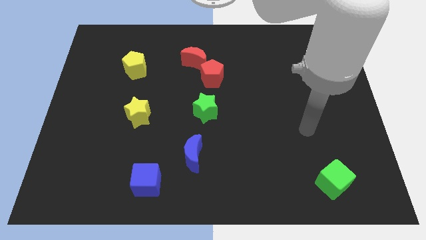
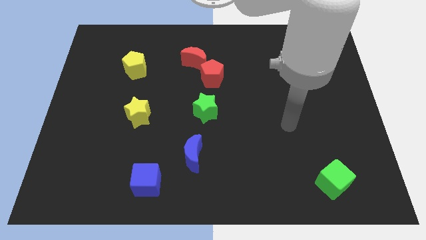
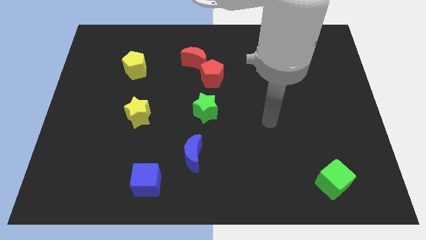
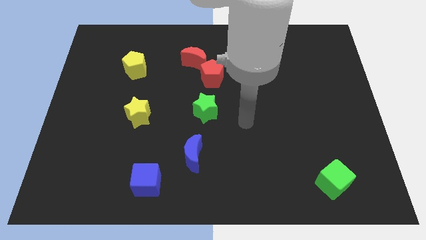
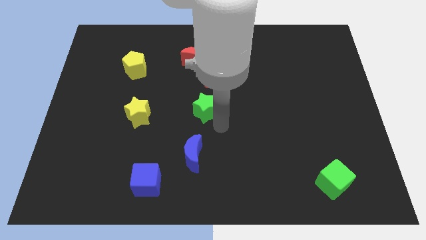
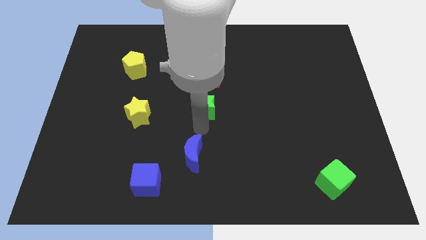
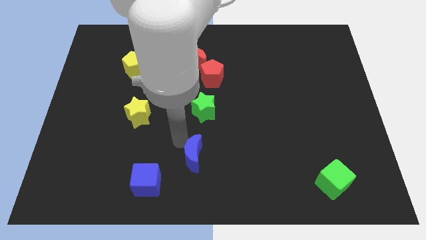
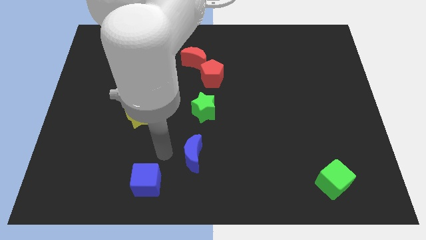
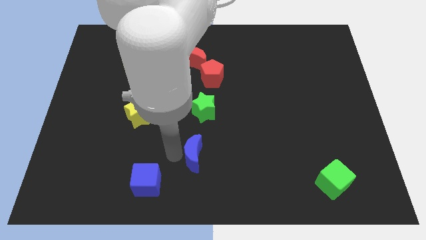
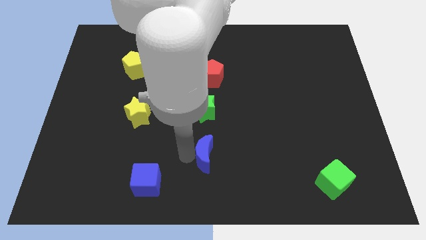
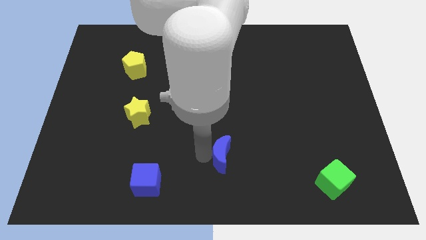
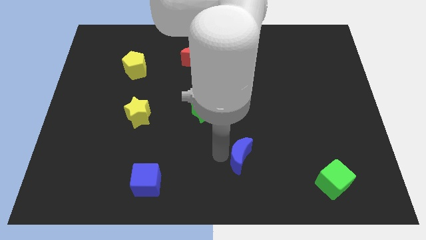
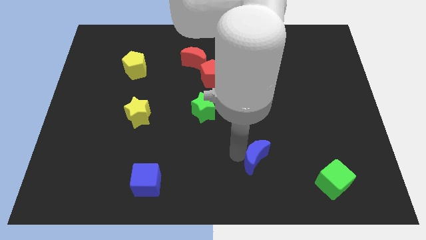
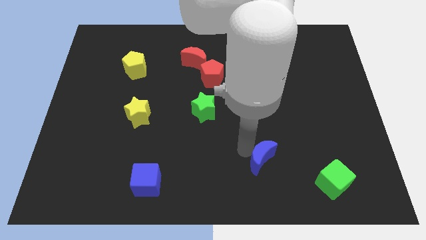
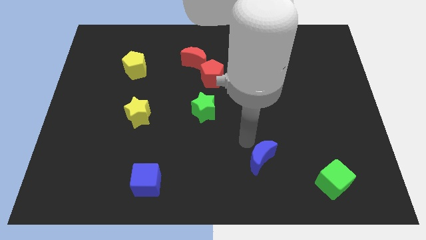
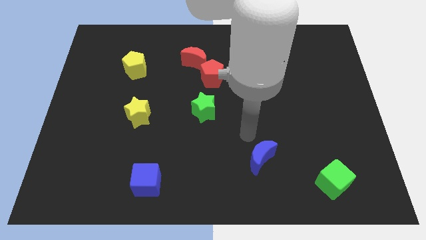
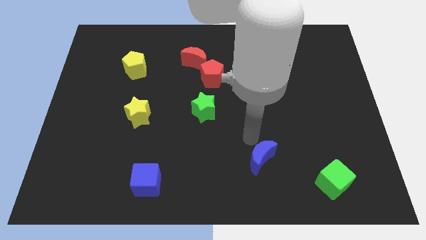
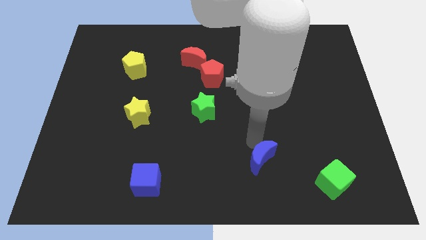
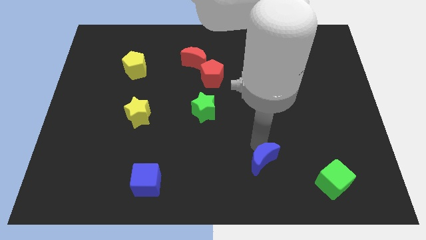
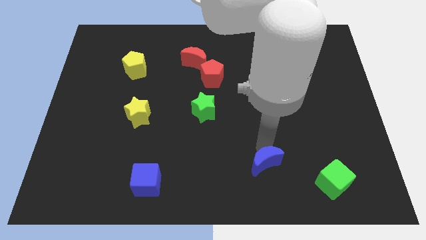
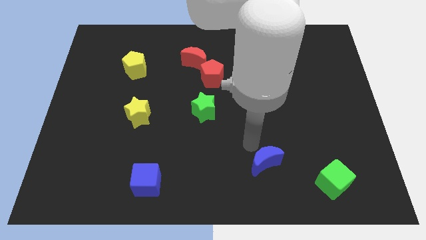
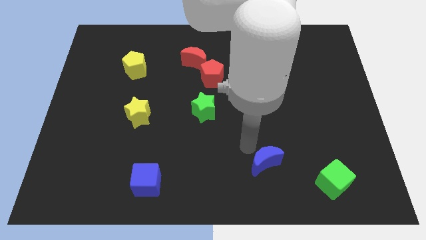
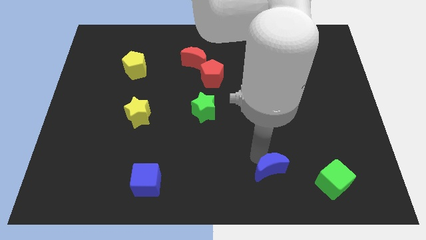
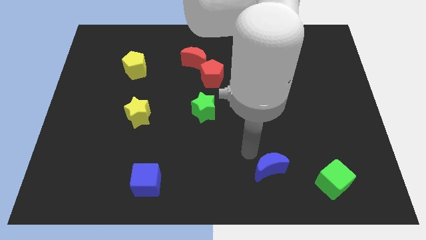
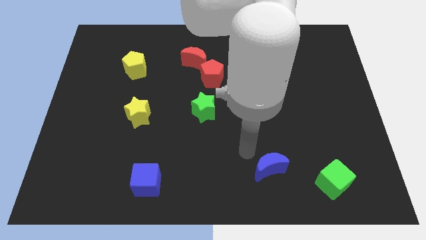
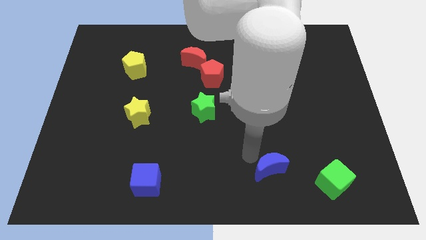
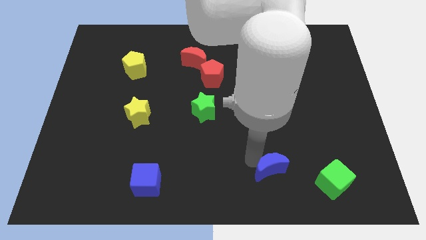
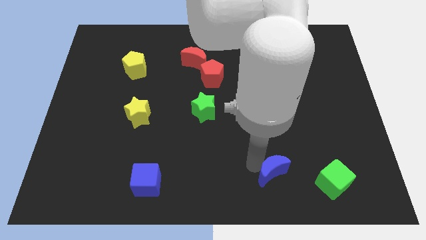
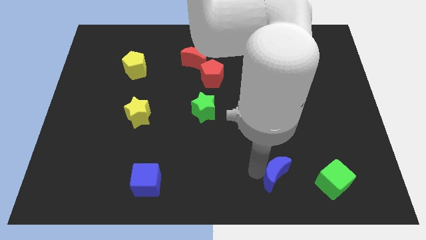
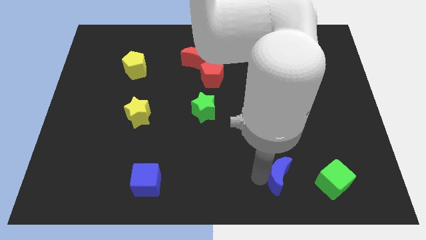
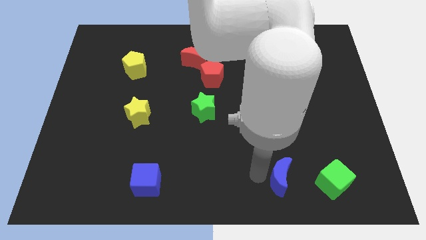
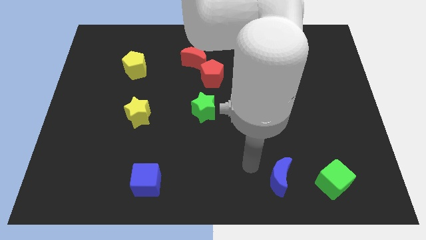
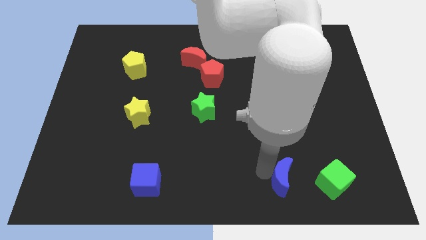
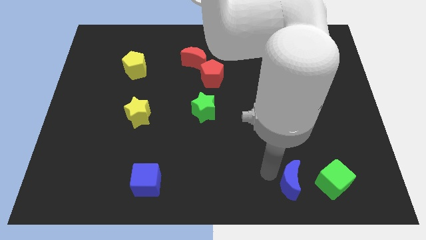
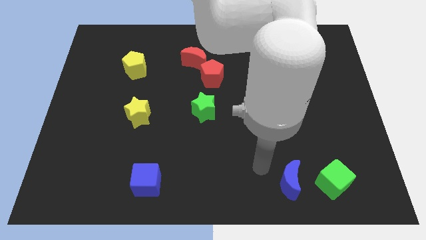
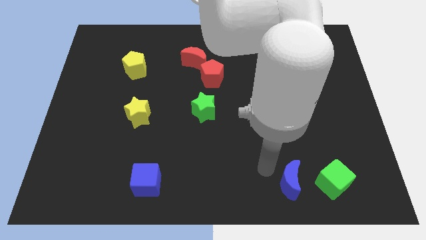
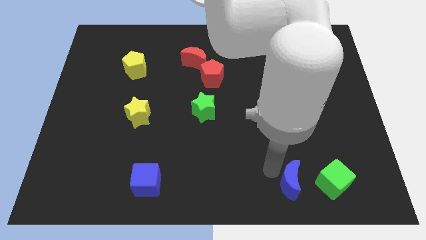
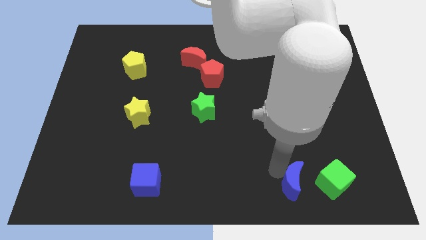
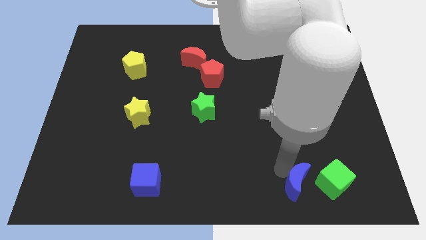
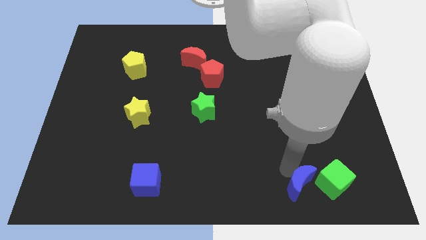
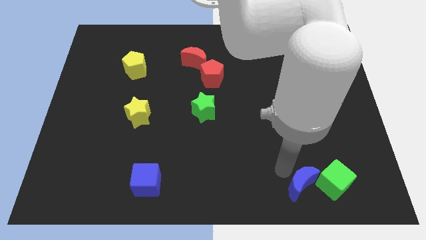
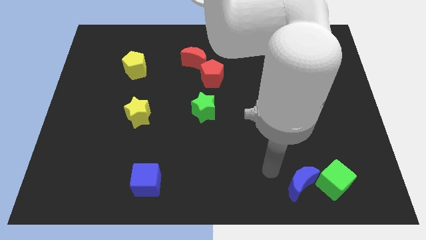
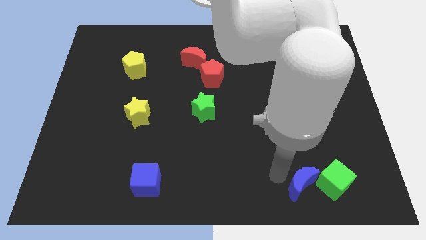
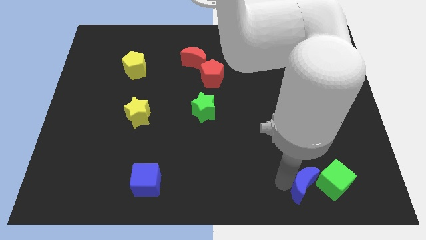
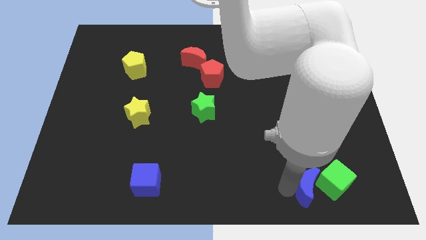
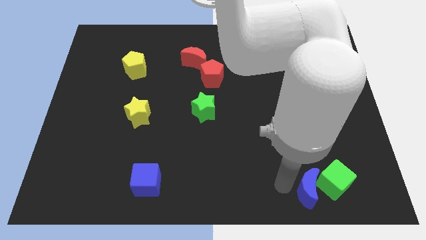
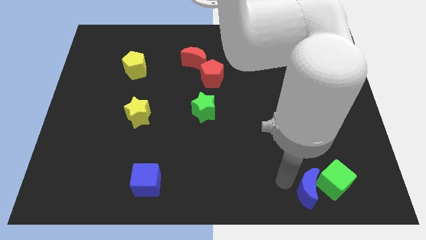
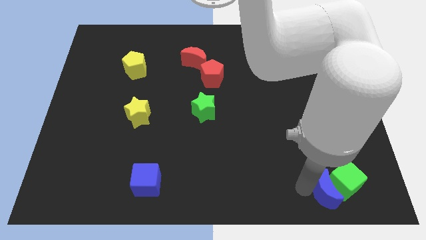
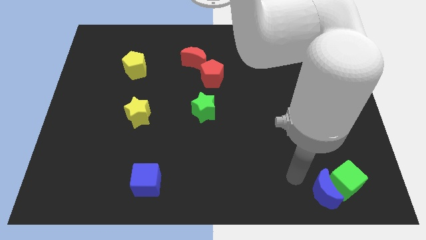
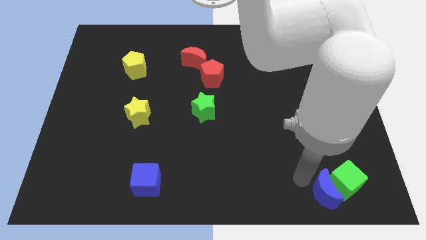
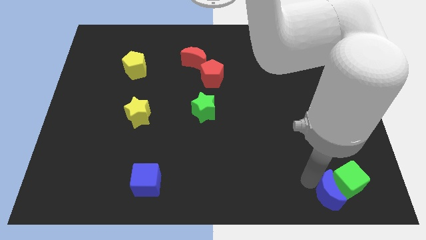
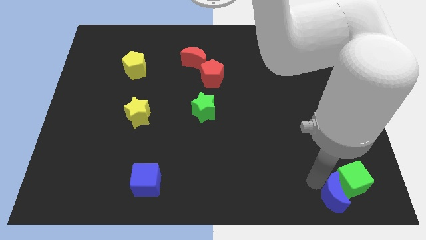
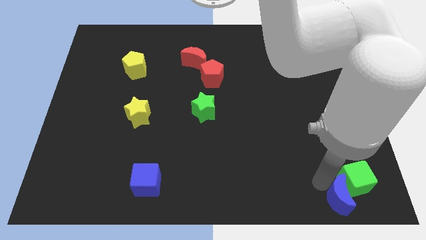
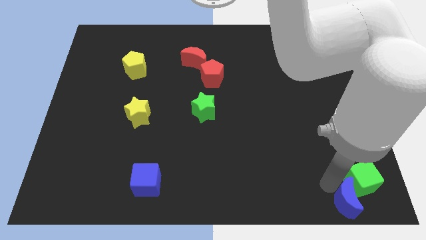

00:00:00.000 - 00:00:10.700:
put the blue moon to the bottom right of the board

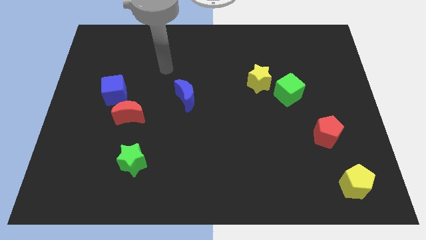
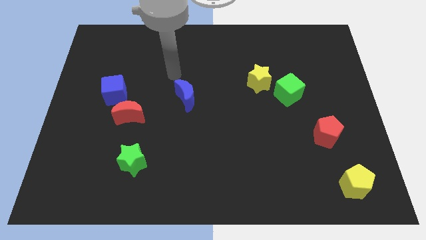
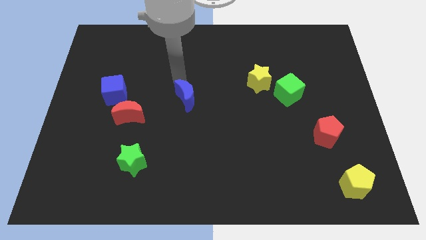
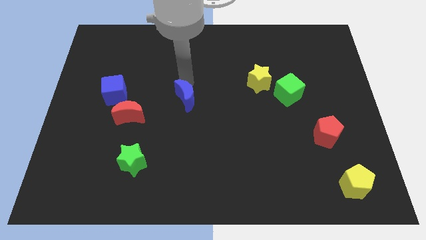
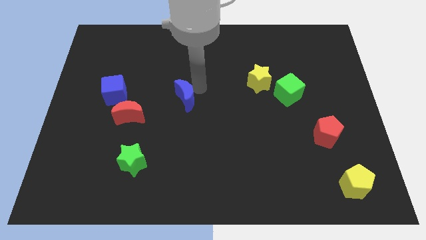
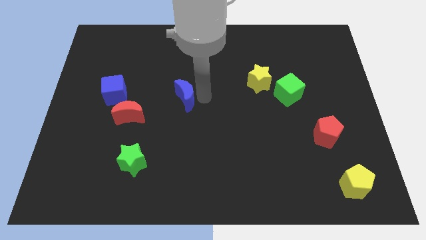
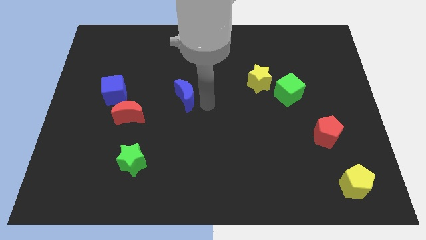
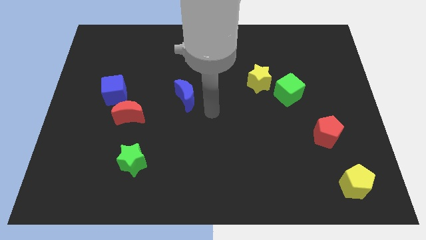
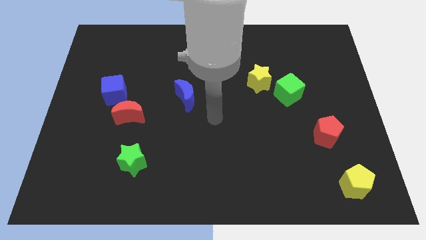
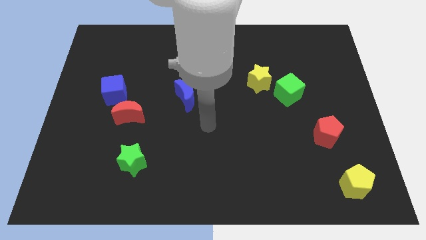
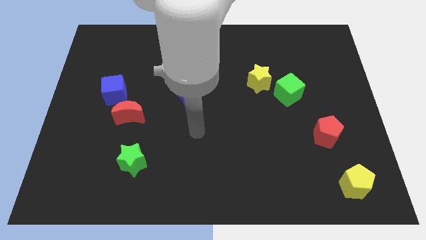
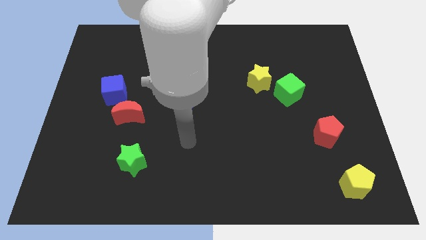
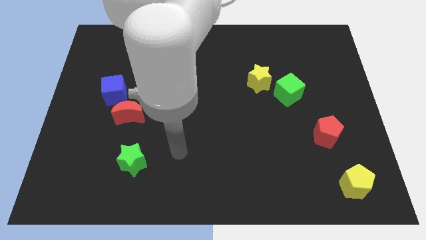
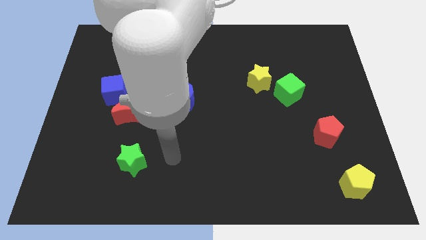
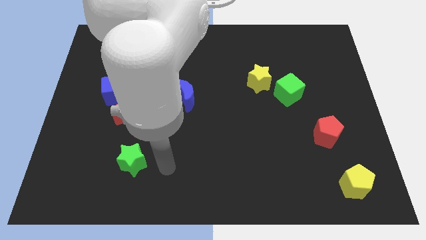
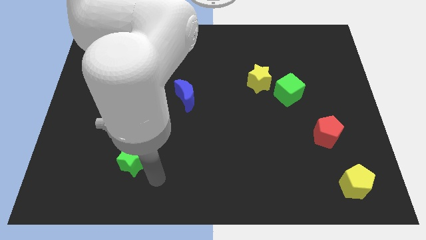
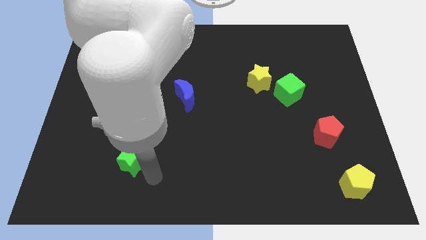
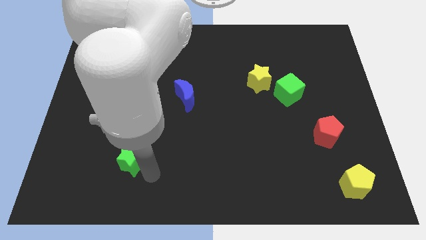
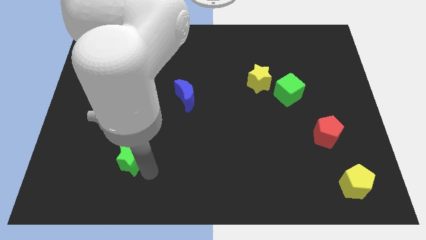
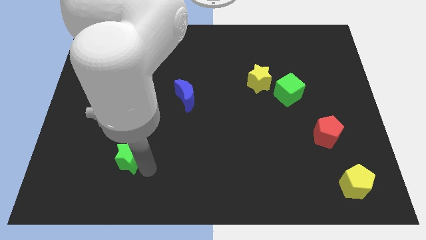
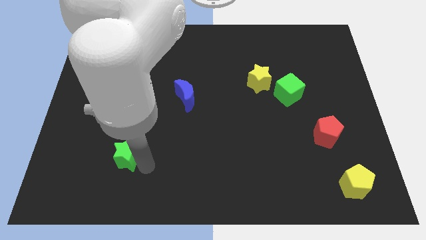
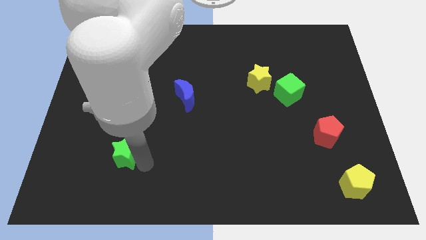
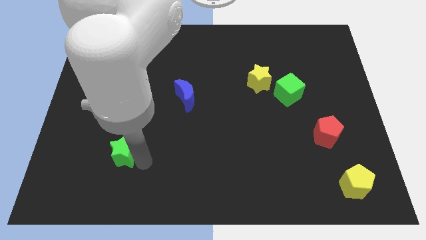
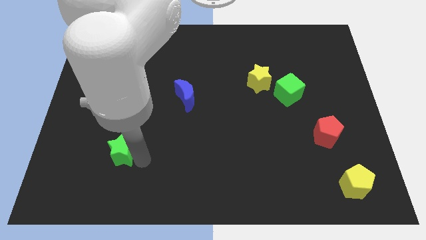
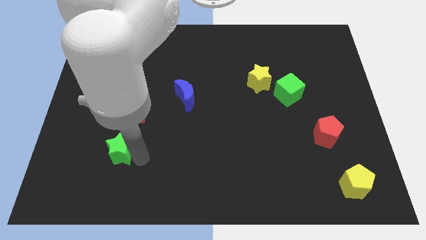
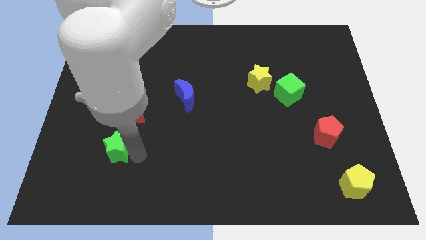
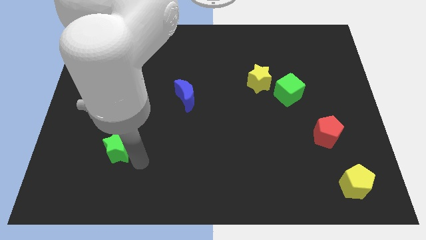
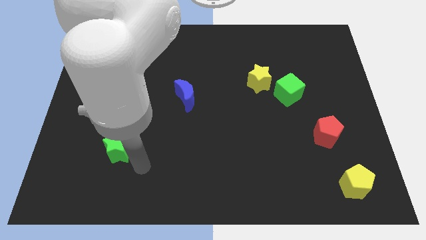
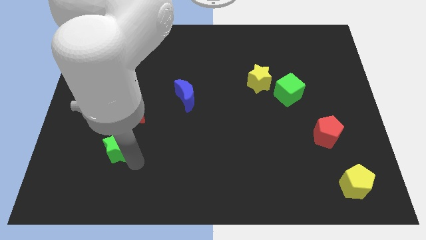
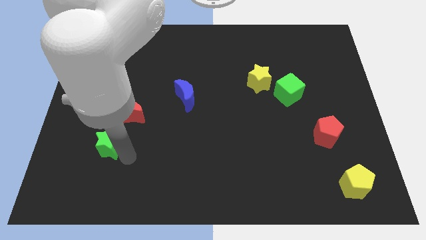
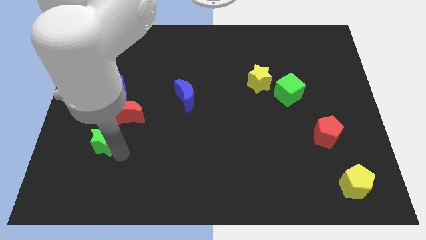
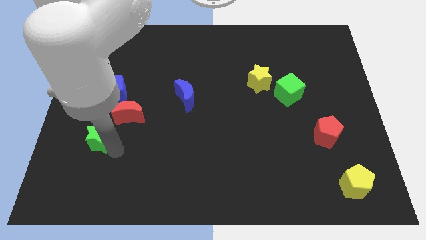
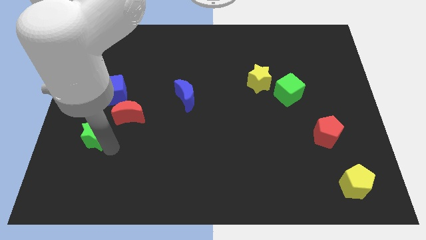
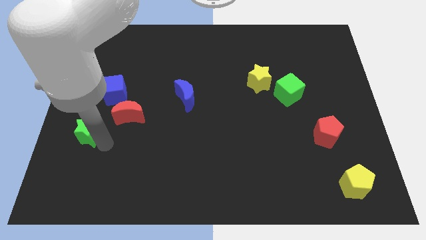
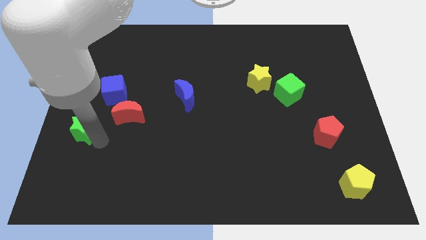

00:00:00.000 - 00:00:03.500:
slide the green star to the center left
